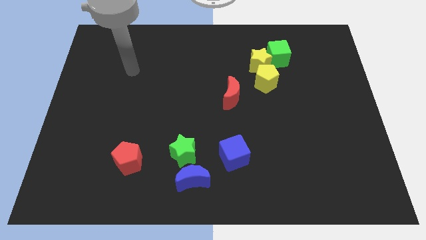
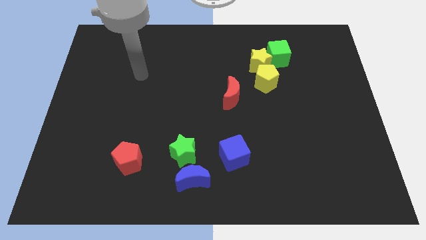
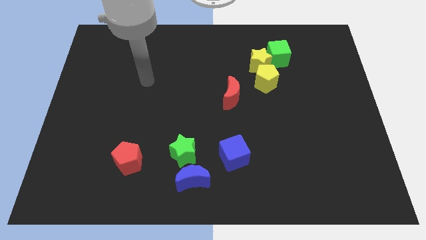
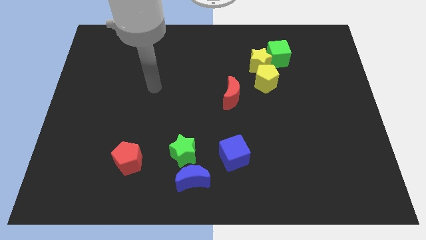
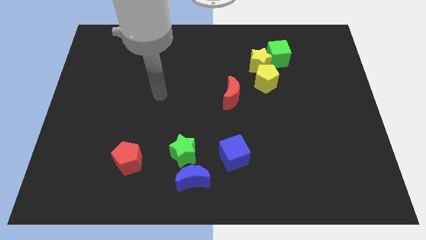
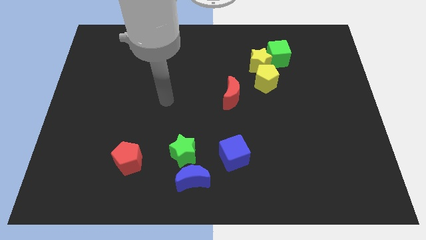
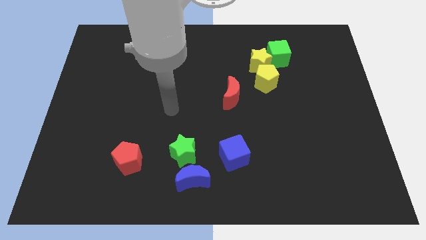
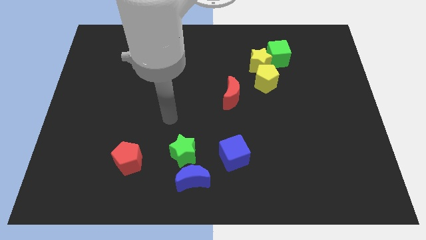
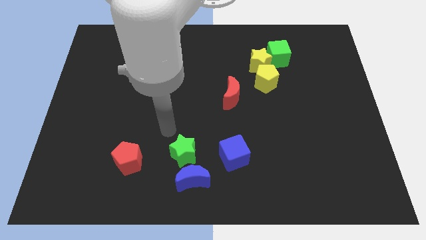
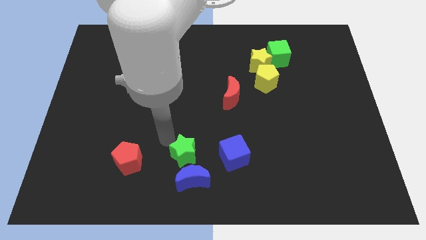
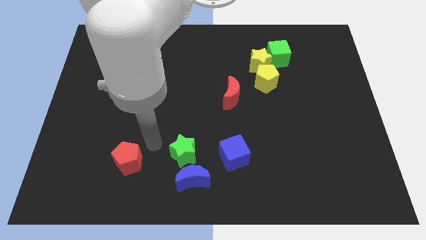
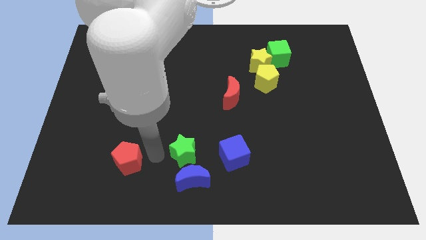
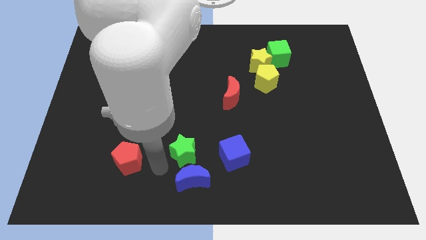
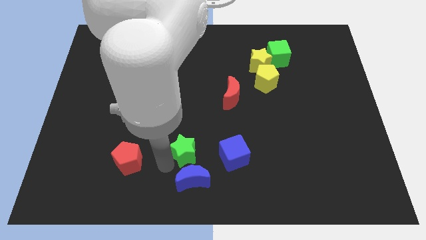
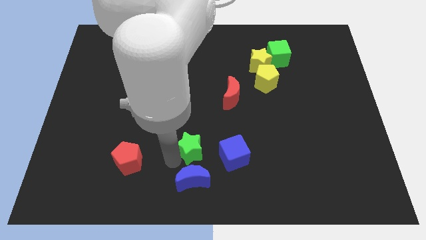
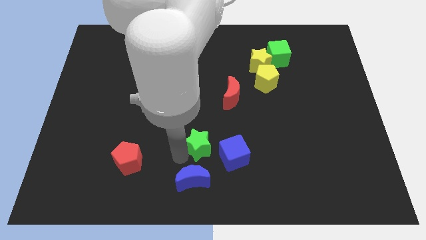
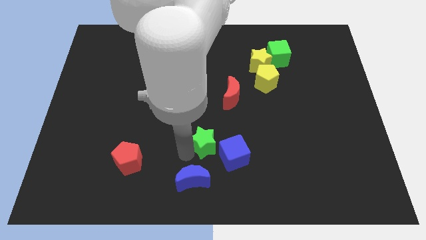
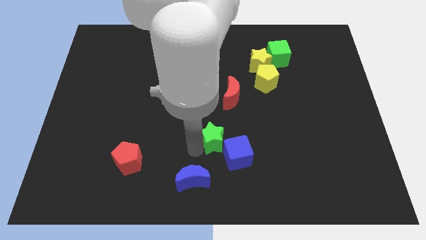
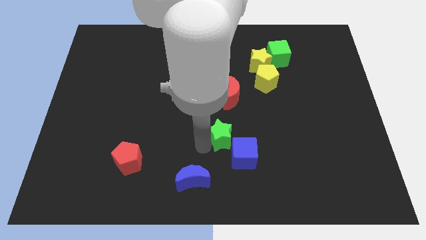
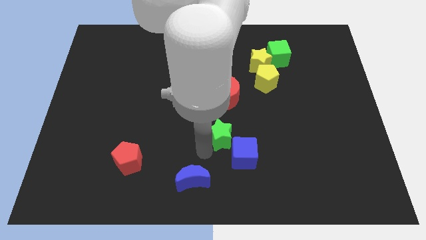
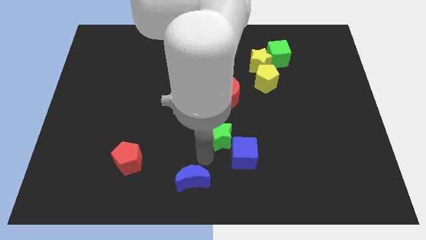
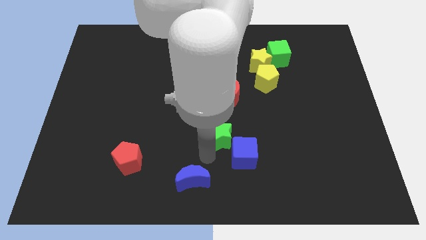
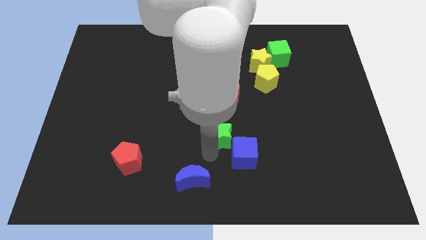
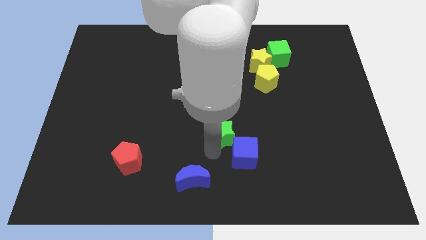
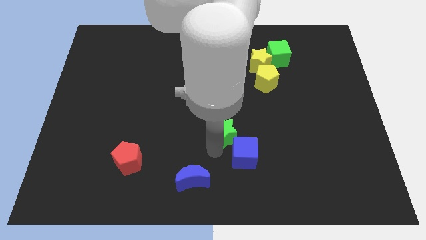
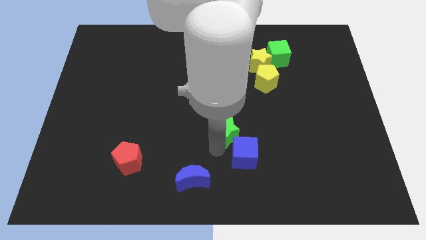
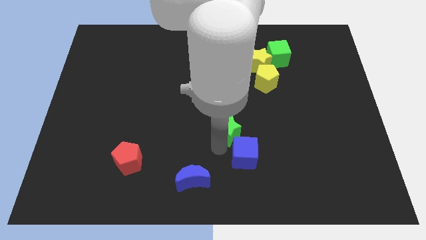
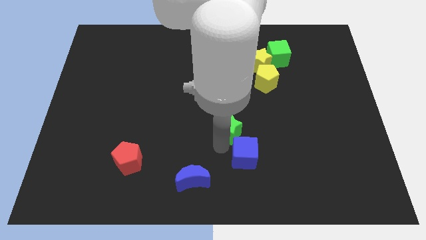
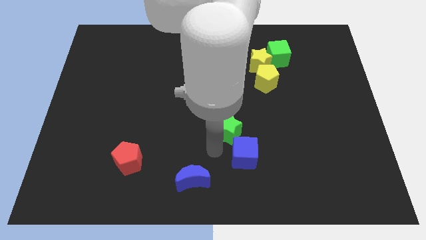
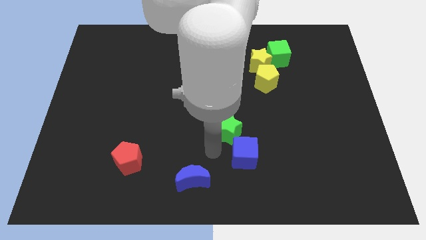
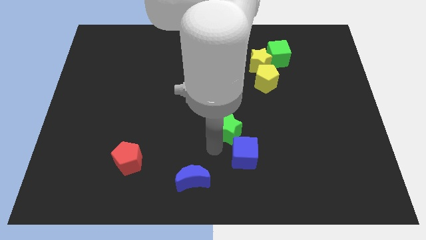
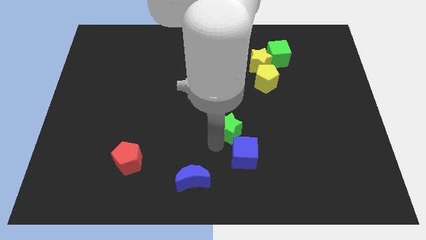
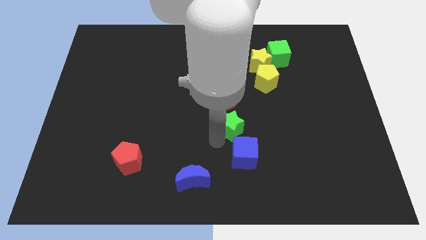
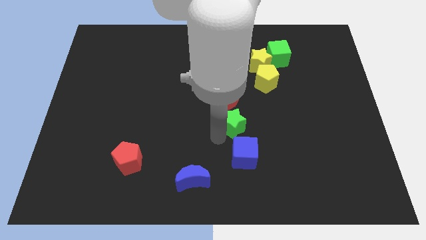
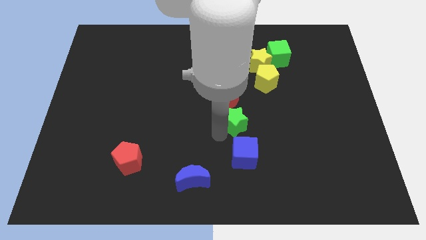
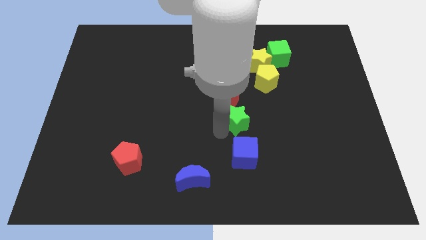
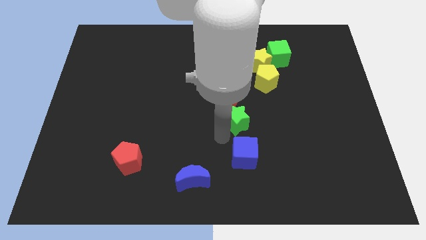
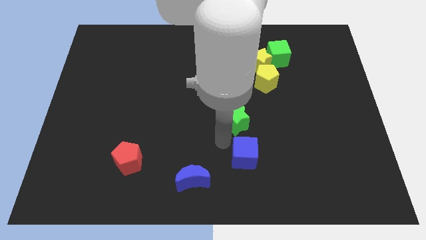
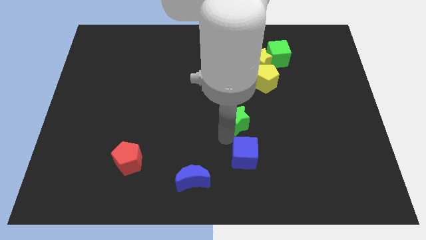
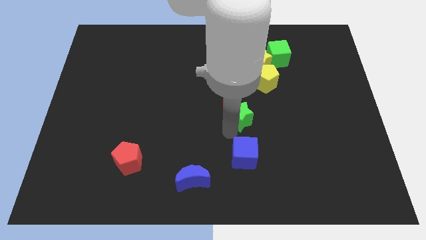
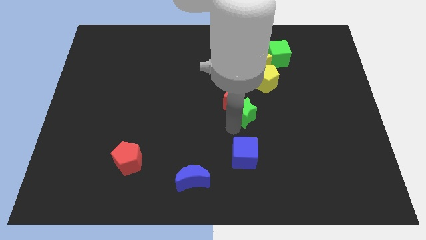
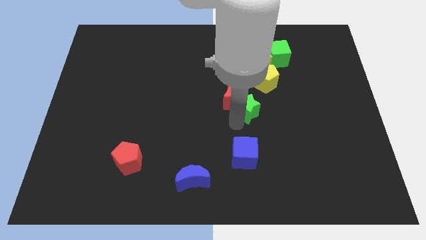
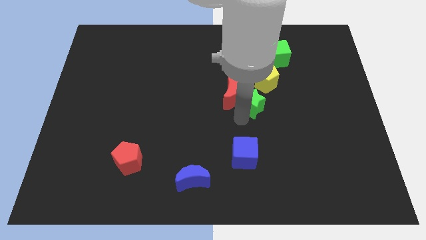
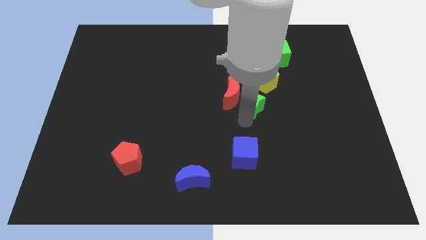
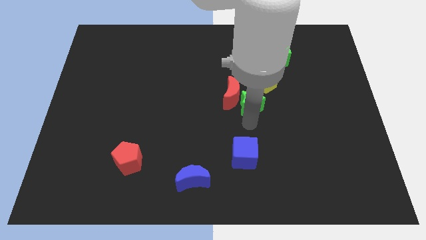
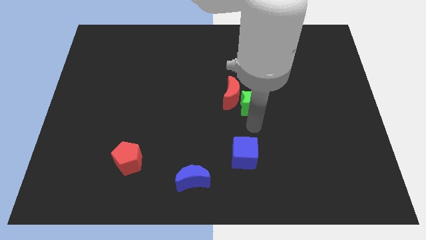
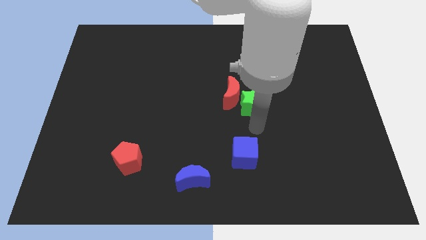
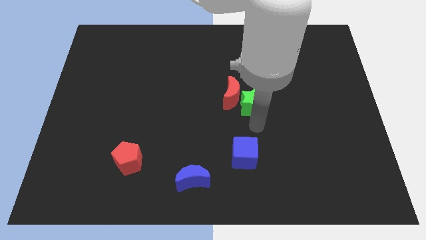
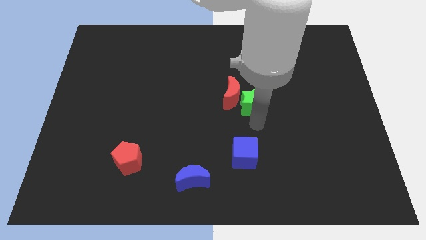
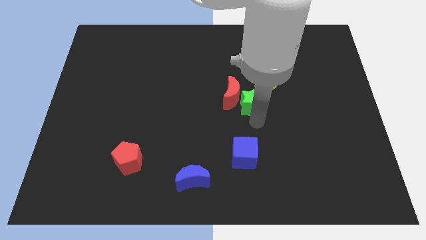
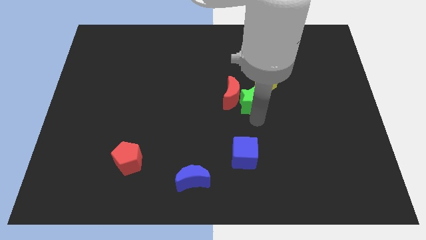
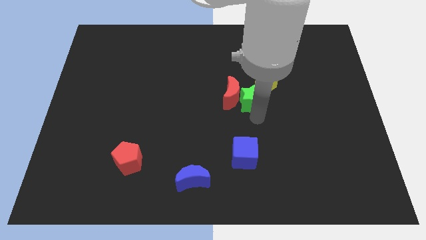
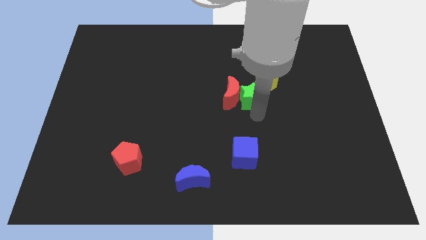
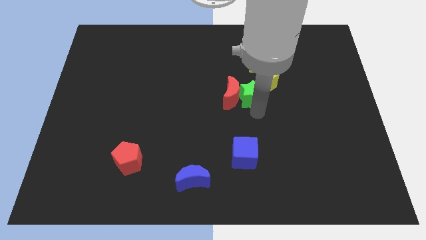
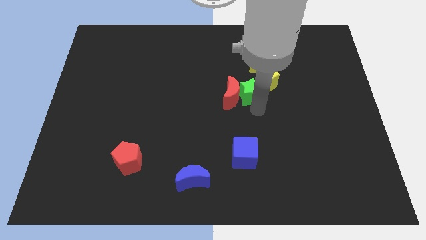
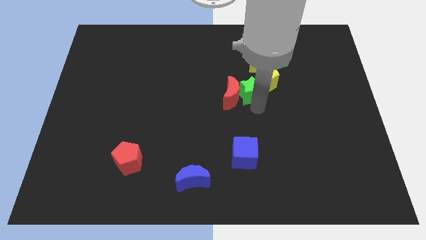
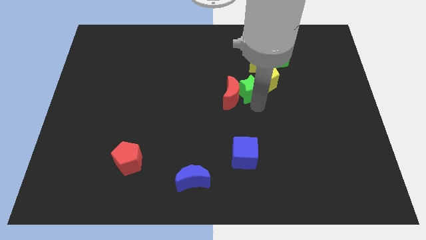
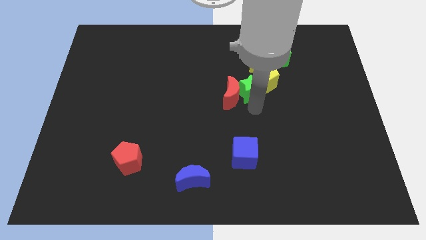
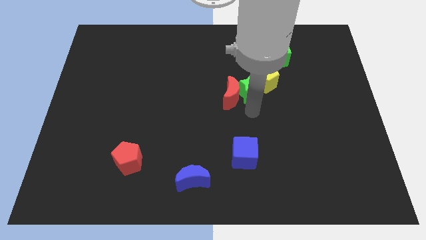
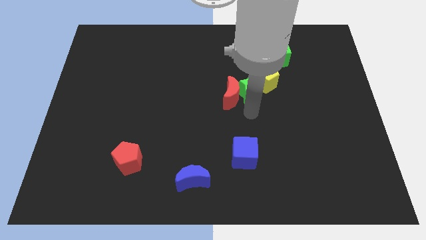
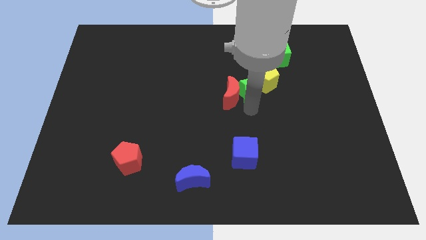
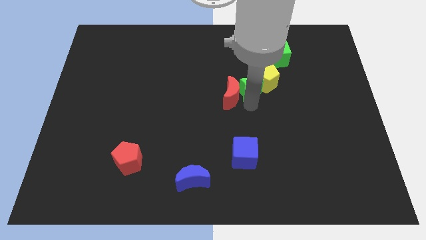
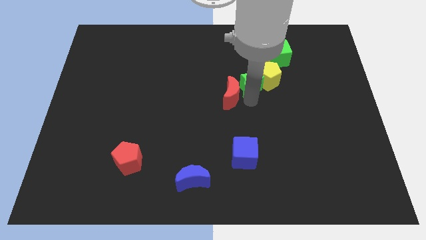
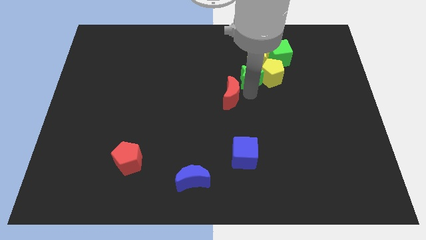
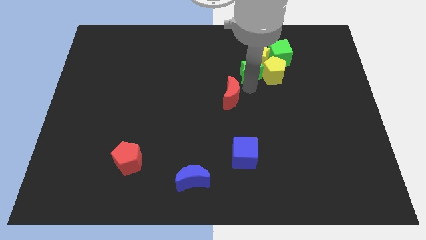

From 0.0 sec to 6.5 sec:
move the green star towards the yellow star

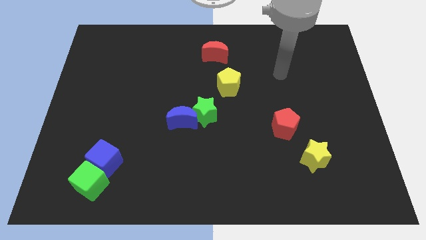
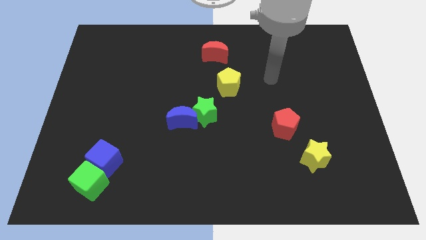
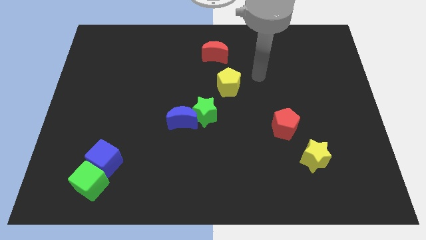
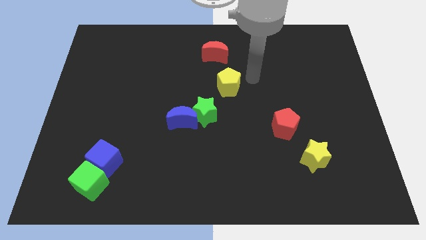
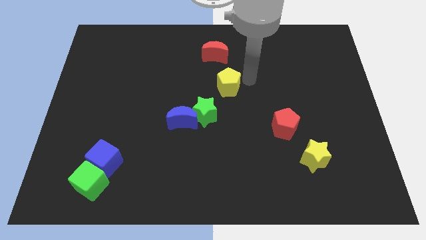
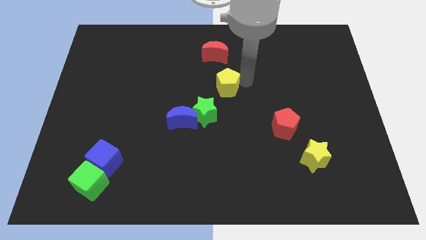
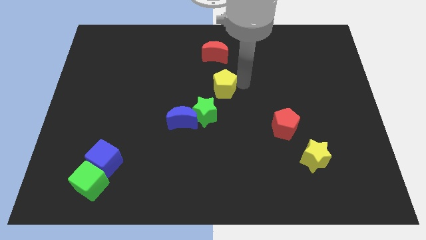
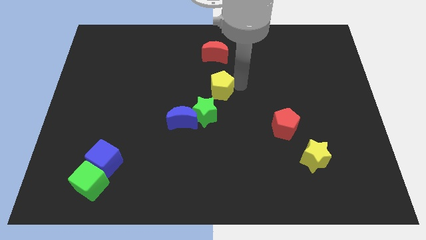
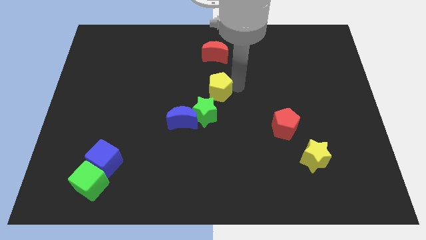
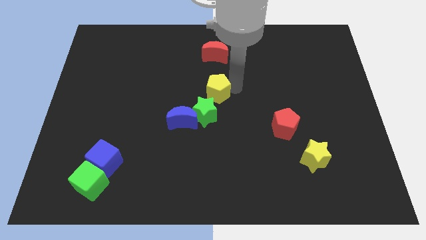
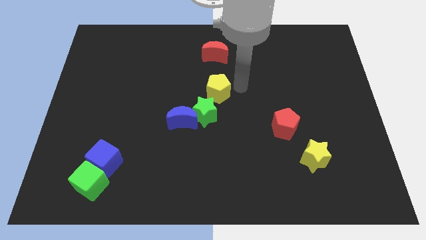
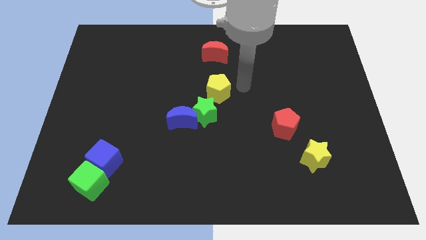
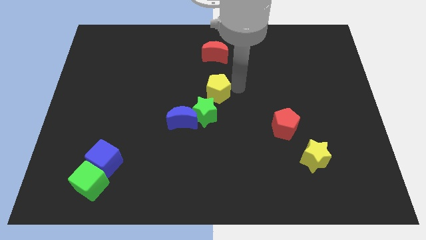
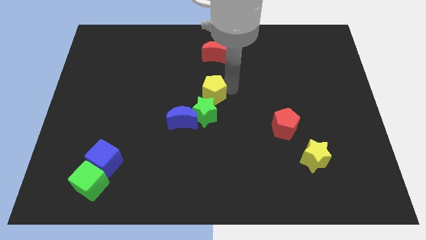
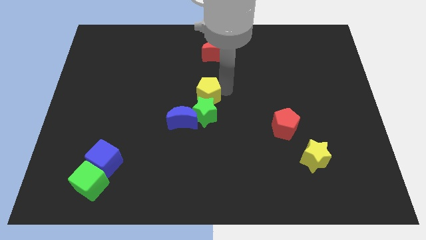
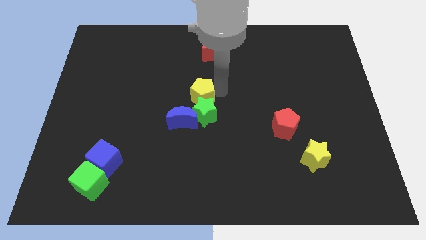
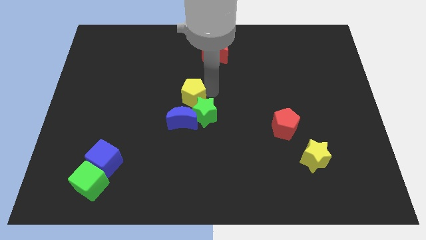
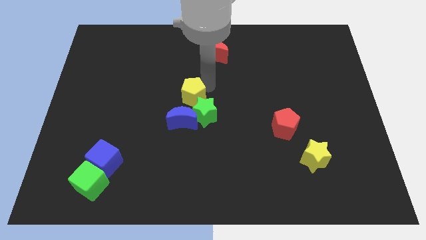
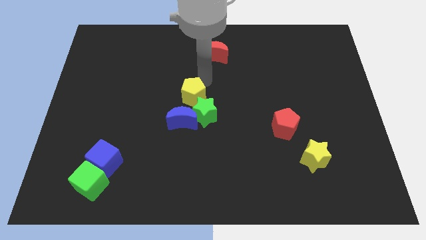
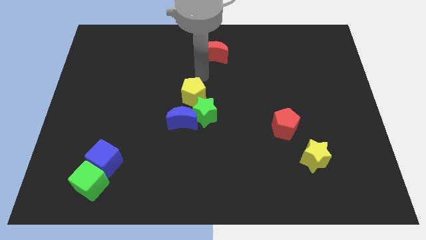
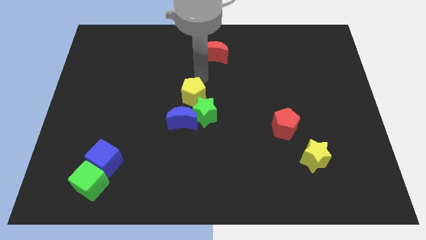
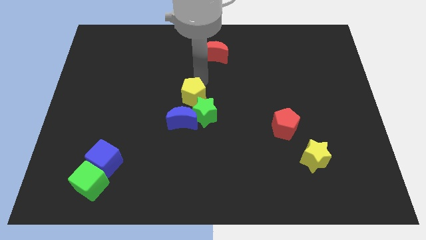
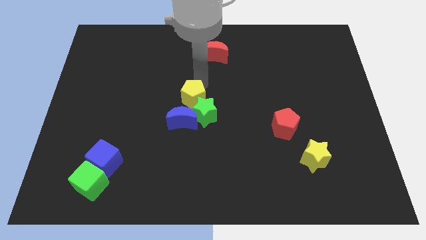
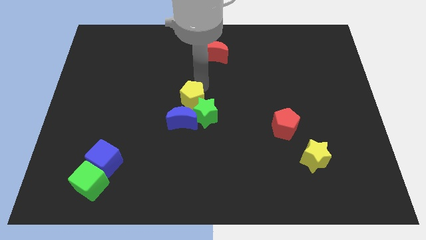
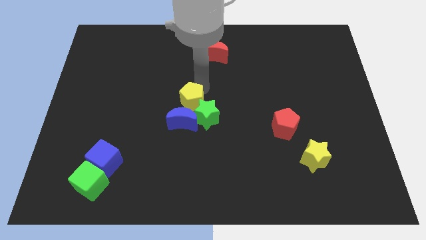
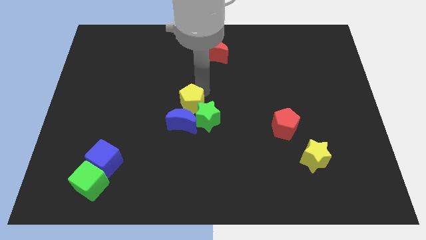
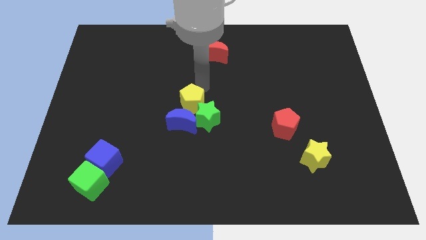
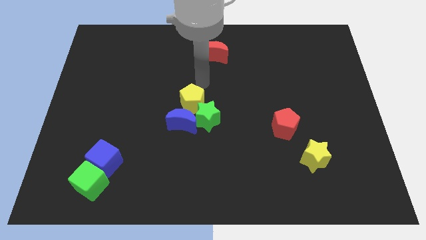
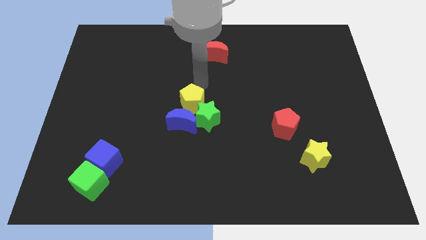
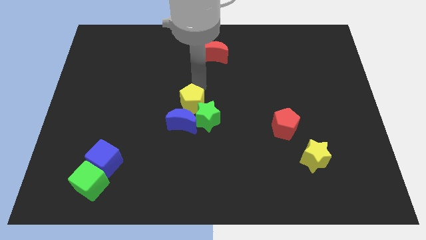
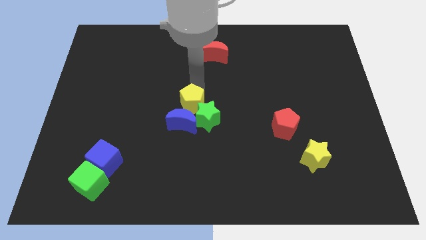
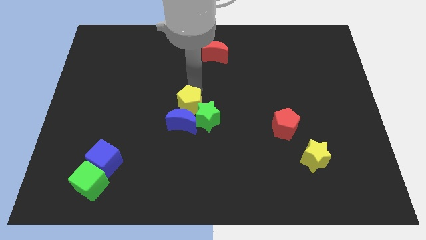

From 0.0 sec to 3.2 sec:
move the yellow pentagon close to the blue moon
